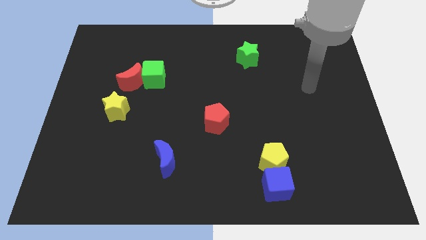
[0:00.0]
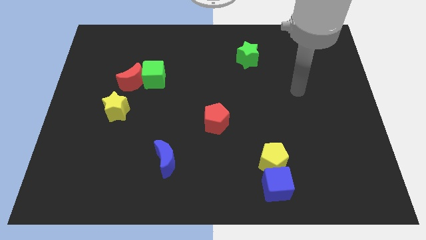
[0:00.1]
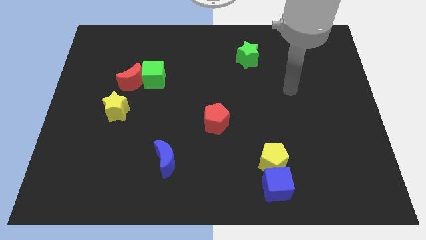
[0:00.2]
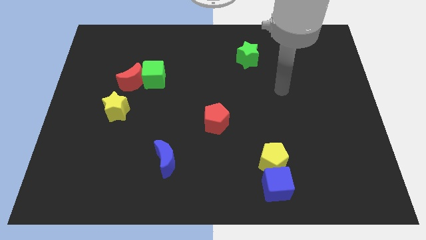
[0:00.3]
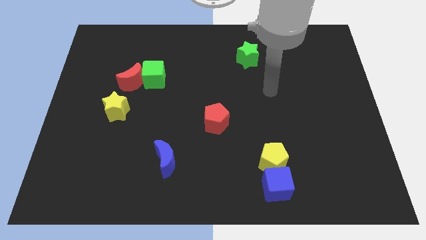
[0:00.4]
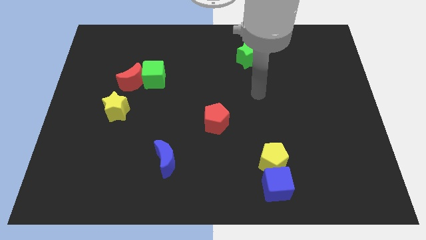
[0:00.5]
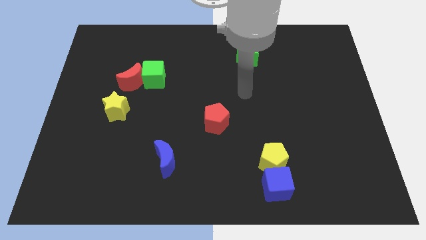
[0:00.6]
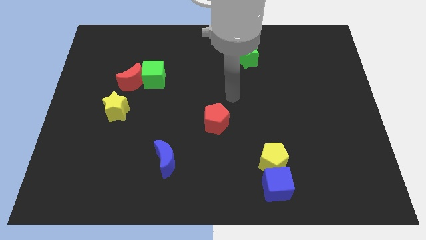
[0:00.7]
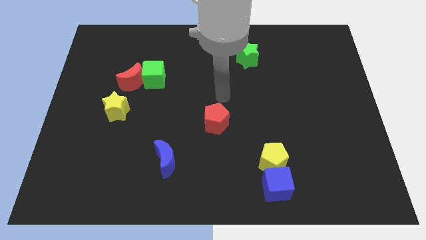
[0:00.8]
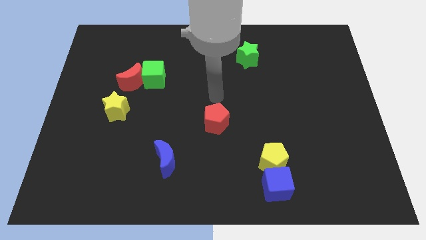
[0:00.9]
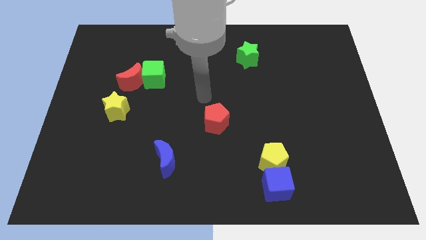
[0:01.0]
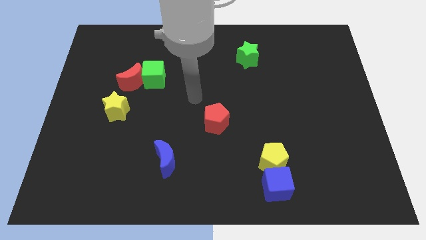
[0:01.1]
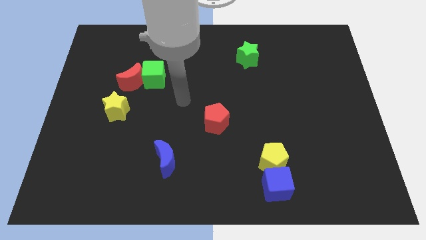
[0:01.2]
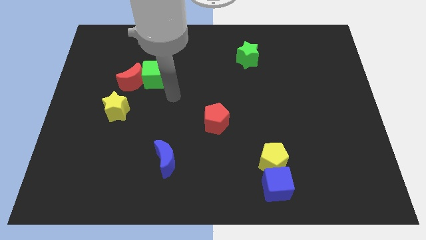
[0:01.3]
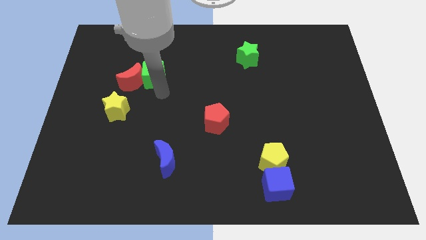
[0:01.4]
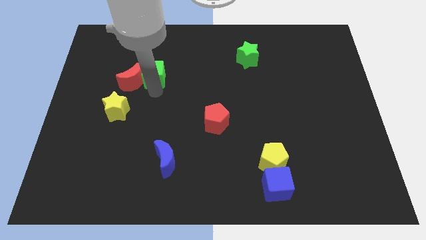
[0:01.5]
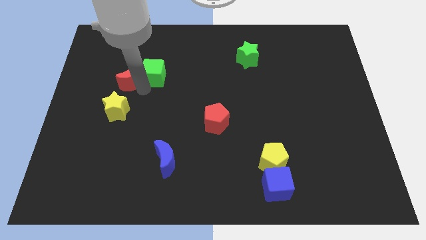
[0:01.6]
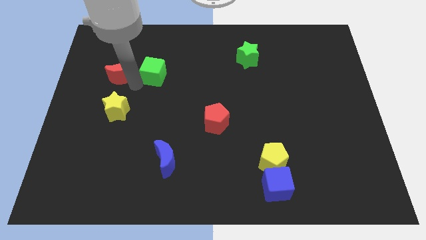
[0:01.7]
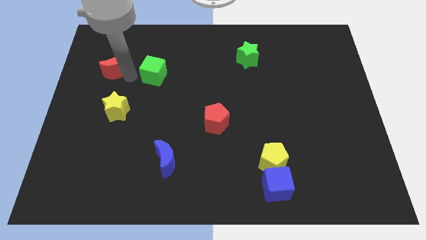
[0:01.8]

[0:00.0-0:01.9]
separate the green cube from the red moon

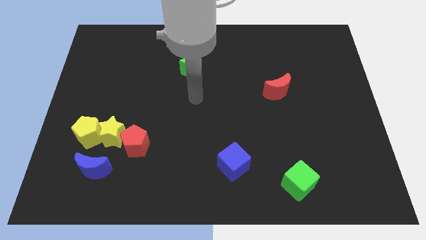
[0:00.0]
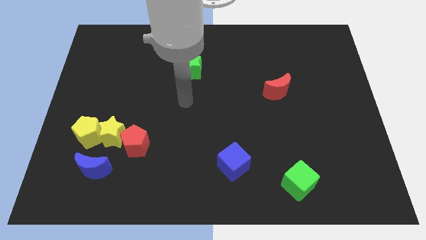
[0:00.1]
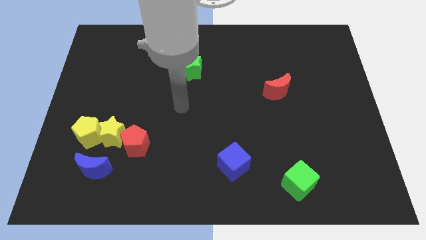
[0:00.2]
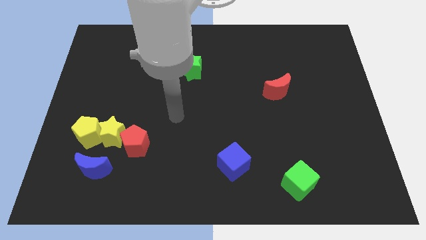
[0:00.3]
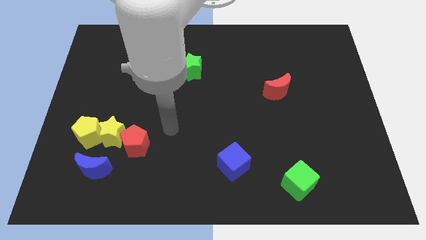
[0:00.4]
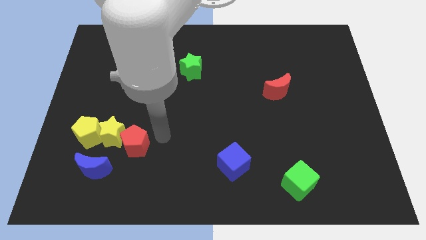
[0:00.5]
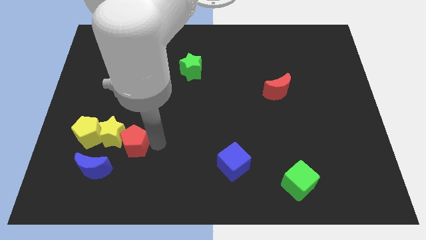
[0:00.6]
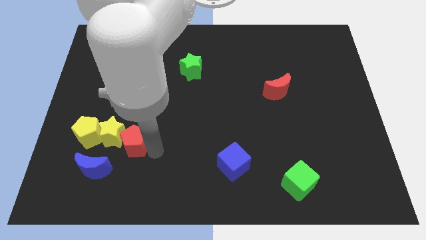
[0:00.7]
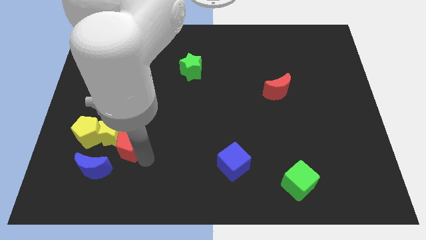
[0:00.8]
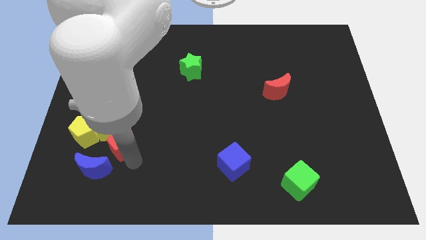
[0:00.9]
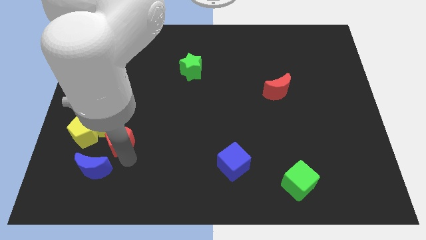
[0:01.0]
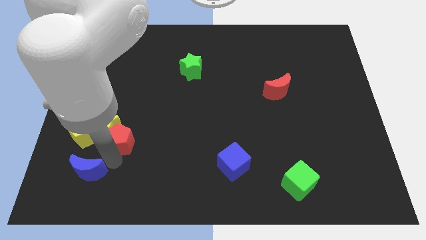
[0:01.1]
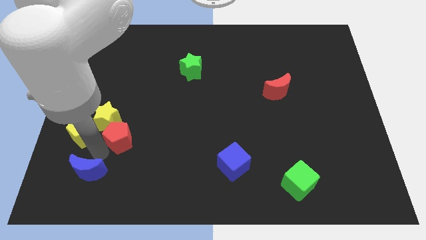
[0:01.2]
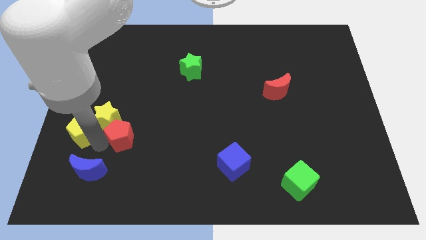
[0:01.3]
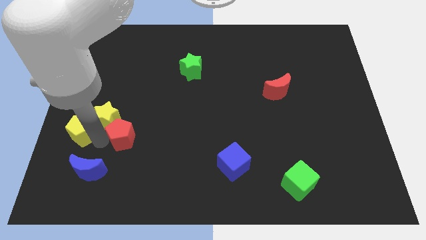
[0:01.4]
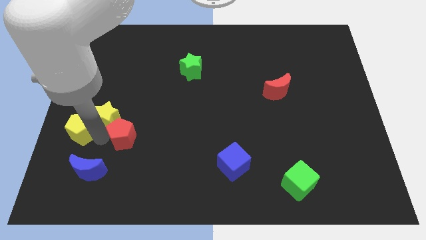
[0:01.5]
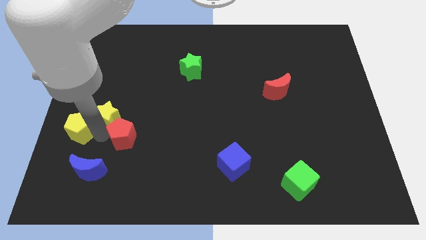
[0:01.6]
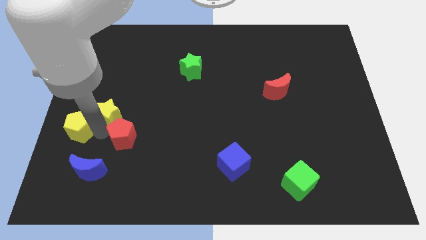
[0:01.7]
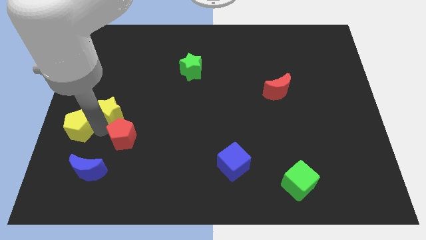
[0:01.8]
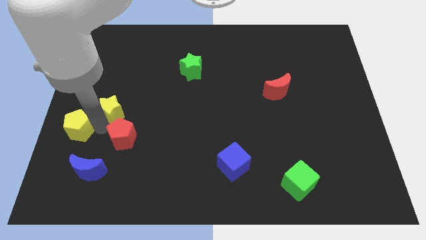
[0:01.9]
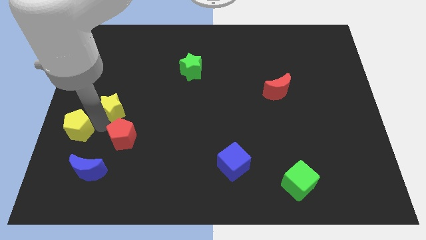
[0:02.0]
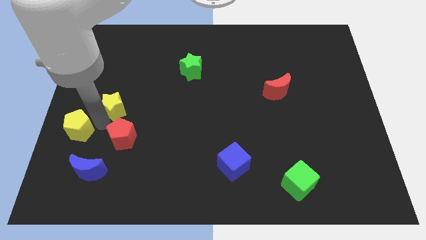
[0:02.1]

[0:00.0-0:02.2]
move the yellow star away from the clump

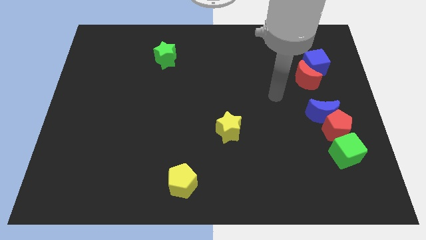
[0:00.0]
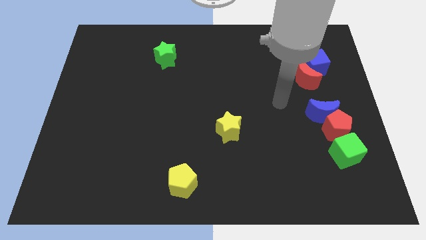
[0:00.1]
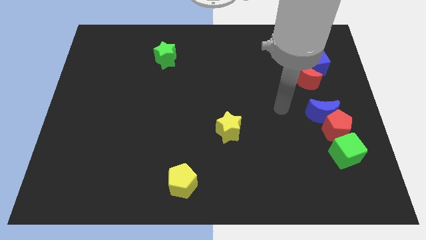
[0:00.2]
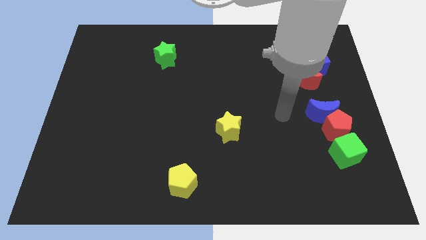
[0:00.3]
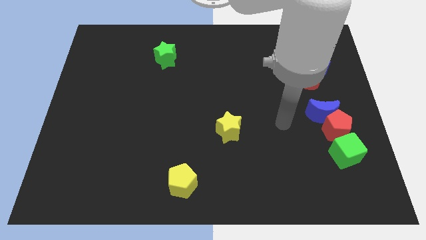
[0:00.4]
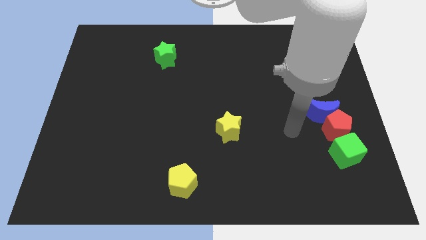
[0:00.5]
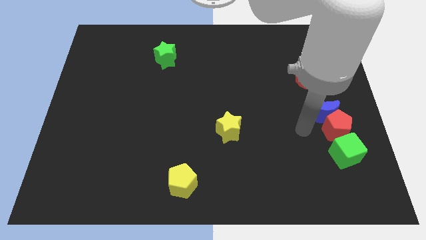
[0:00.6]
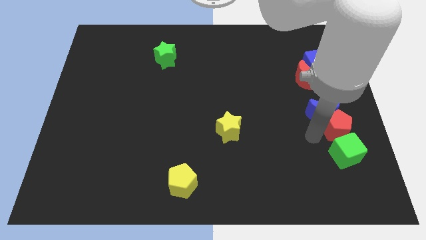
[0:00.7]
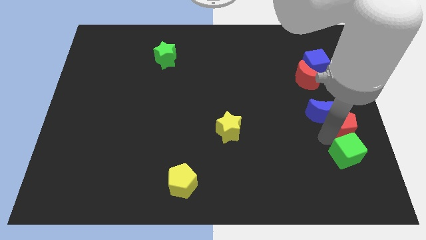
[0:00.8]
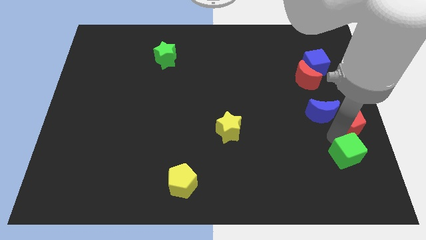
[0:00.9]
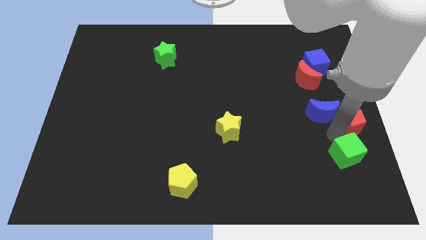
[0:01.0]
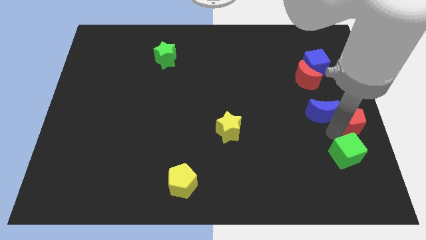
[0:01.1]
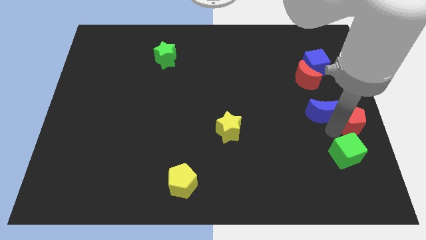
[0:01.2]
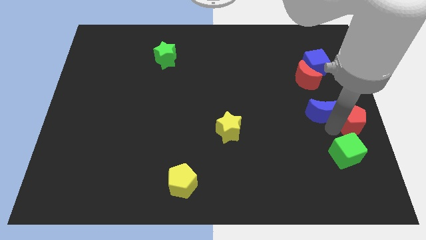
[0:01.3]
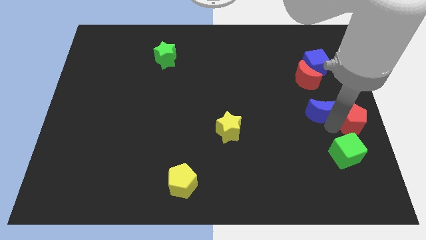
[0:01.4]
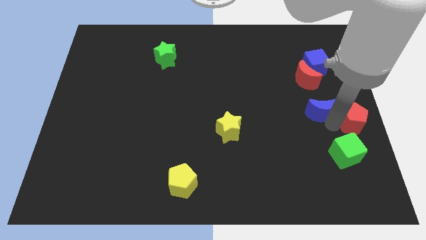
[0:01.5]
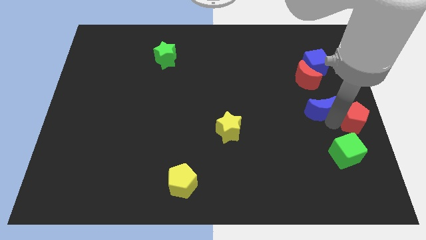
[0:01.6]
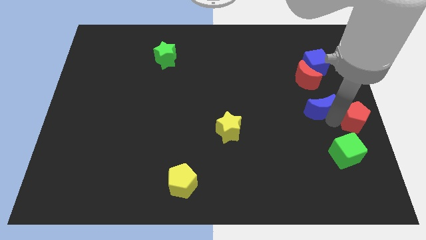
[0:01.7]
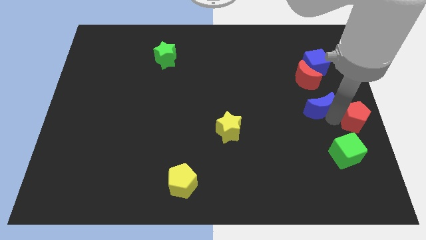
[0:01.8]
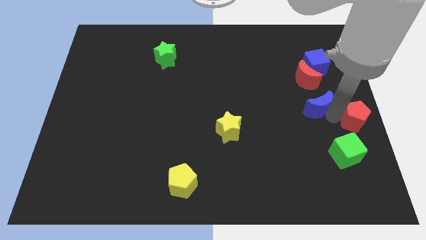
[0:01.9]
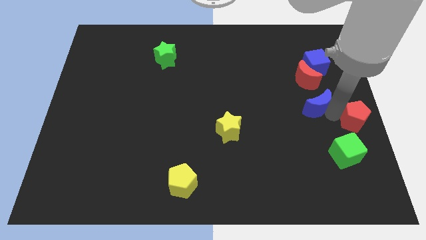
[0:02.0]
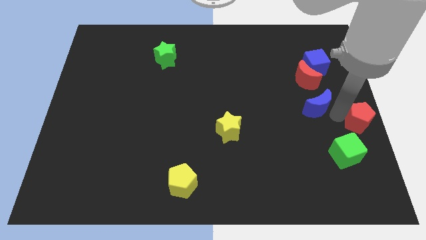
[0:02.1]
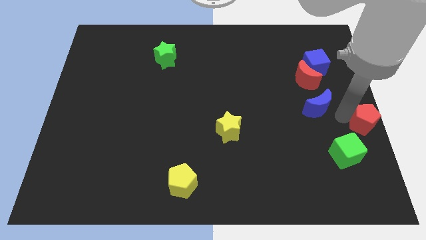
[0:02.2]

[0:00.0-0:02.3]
pull the blue moon apart from the red pentagon

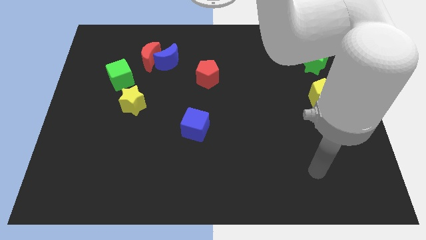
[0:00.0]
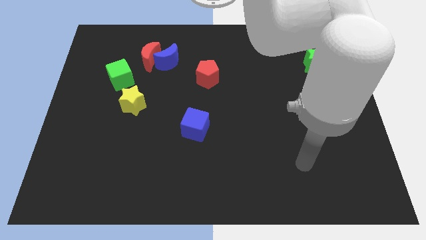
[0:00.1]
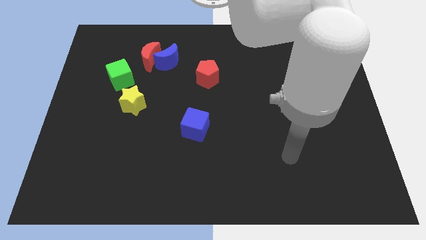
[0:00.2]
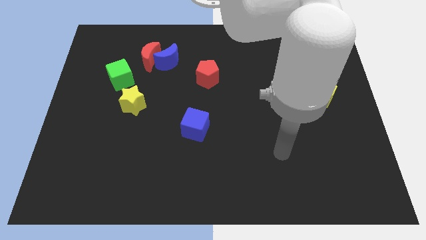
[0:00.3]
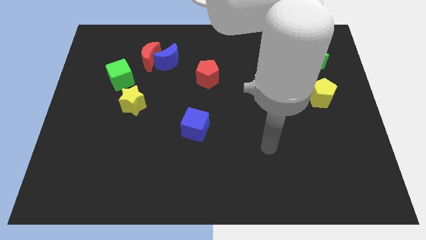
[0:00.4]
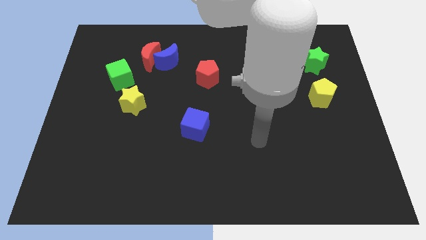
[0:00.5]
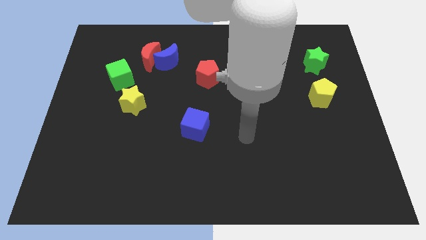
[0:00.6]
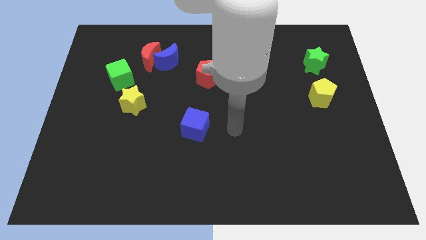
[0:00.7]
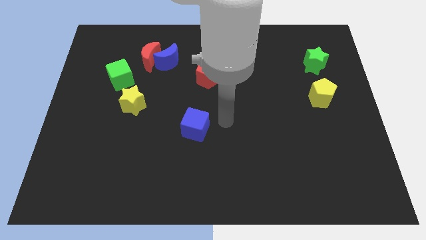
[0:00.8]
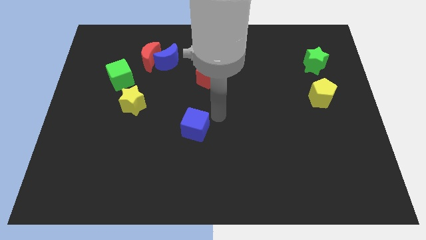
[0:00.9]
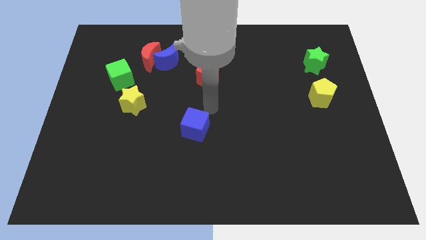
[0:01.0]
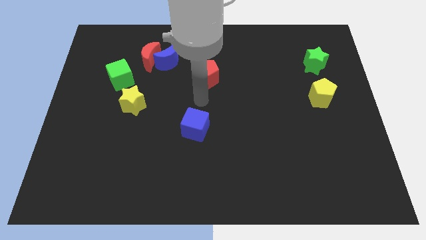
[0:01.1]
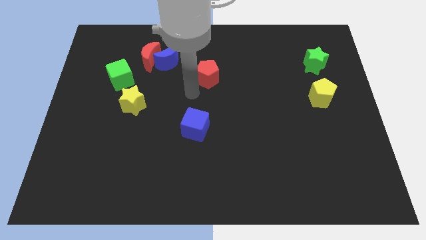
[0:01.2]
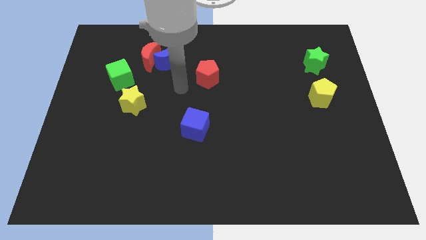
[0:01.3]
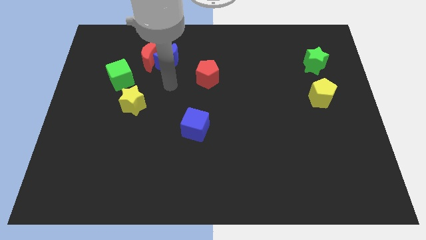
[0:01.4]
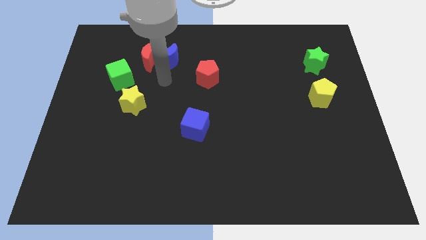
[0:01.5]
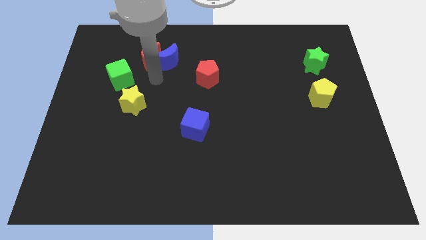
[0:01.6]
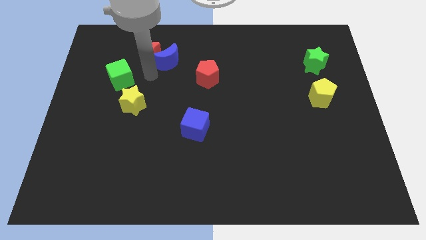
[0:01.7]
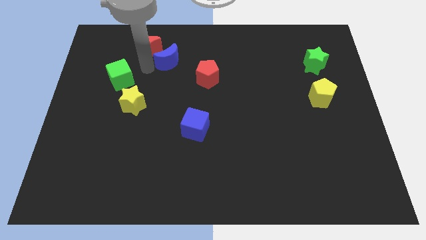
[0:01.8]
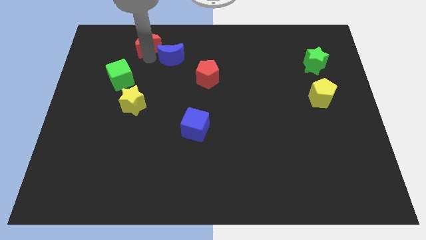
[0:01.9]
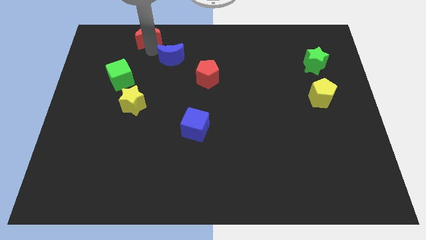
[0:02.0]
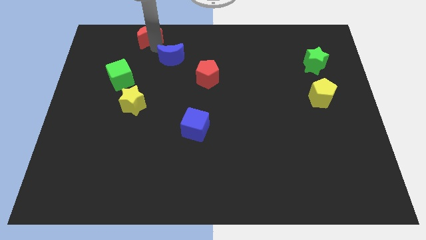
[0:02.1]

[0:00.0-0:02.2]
pull the blue moon apart from the red moon

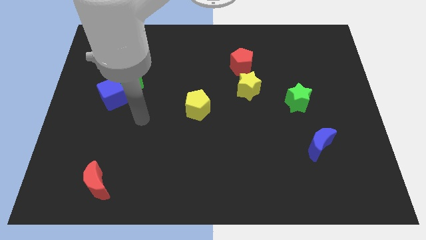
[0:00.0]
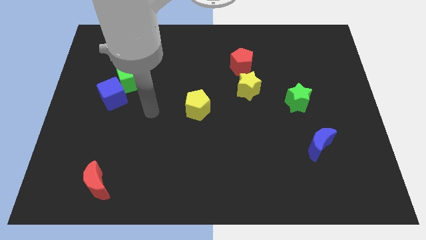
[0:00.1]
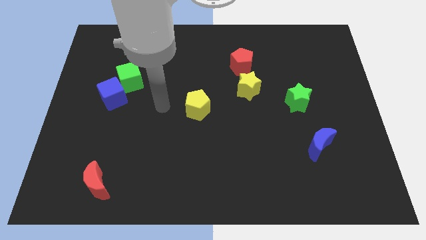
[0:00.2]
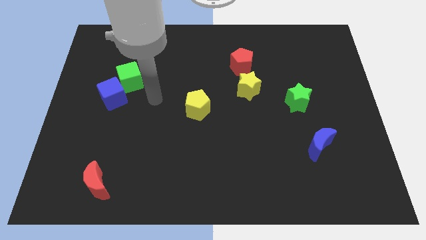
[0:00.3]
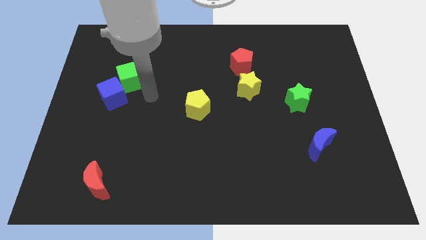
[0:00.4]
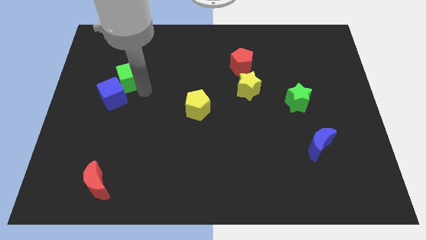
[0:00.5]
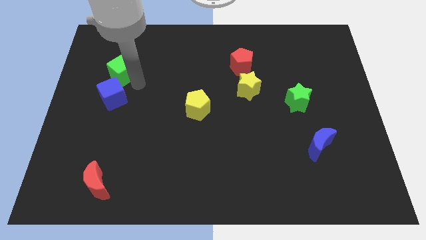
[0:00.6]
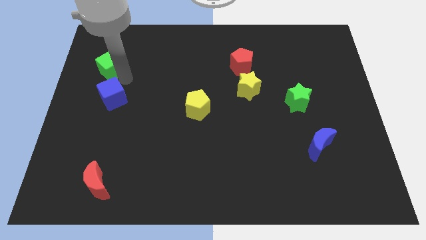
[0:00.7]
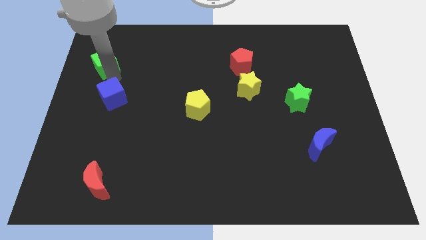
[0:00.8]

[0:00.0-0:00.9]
pull the blue cube apart from the green cube
